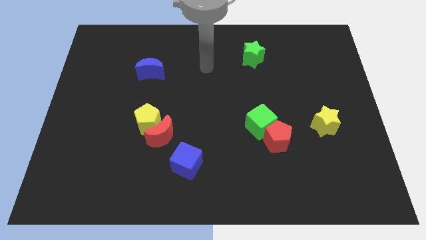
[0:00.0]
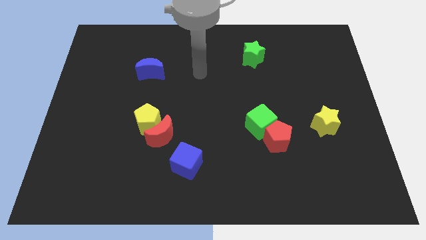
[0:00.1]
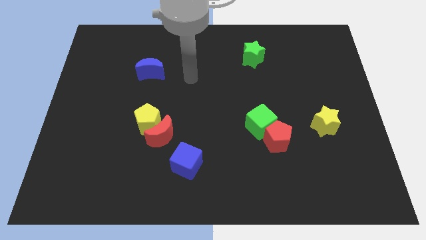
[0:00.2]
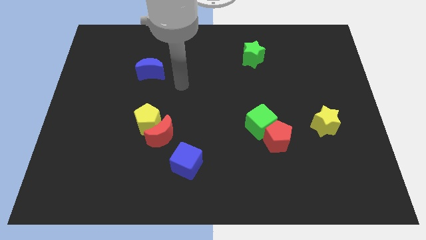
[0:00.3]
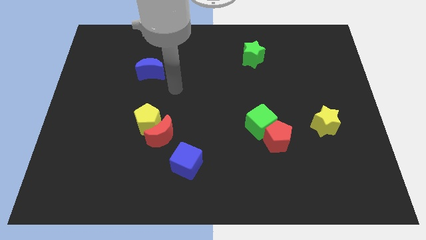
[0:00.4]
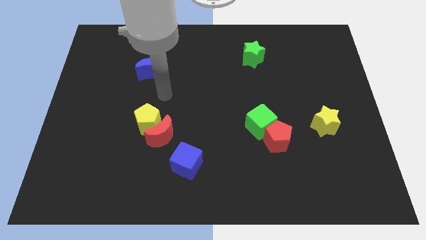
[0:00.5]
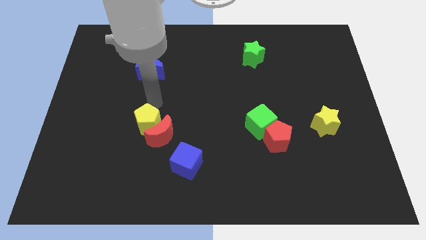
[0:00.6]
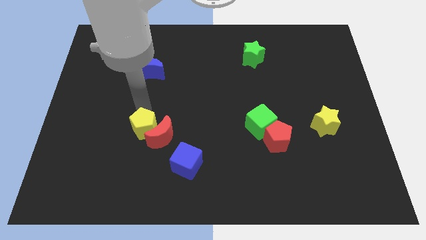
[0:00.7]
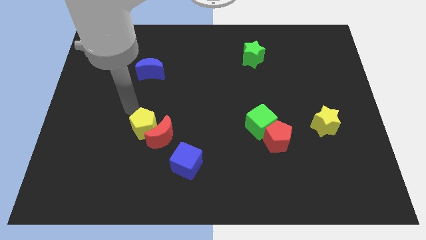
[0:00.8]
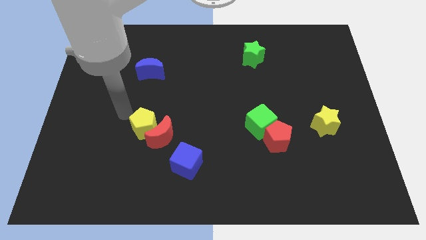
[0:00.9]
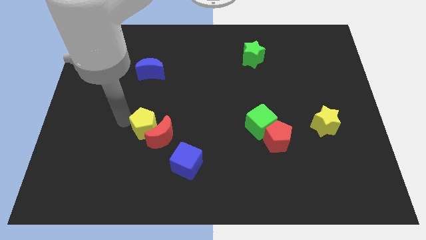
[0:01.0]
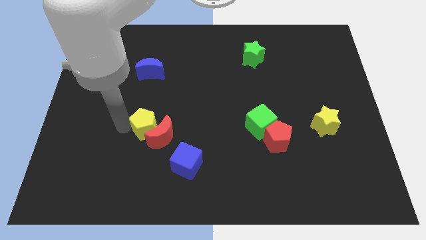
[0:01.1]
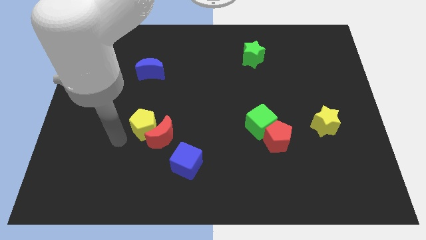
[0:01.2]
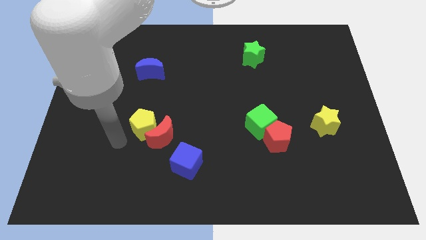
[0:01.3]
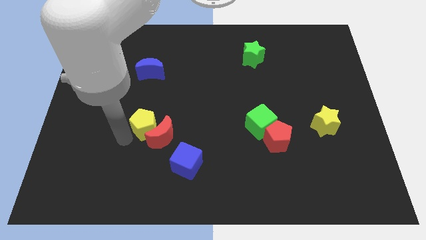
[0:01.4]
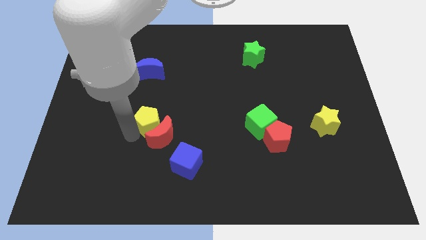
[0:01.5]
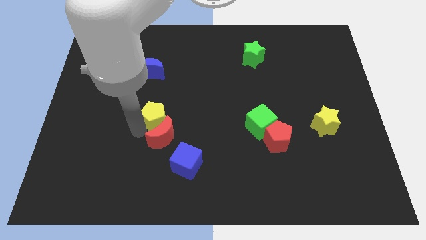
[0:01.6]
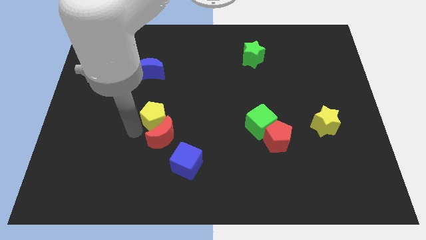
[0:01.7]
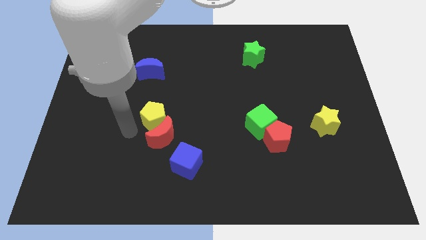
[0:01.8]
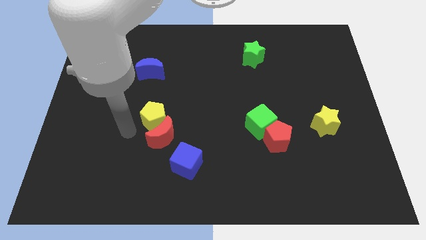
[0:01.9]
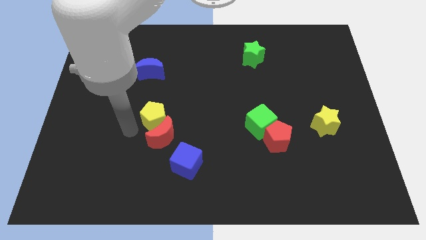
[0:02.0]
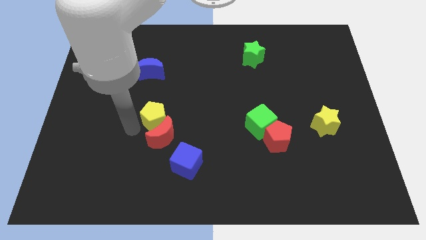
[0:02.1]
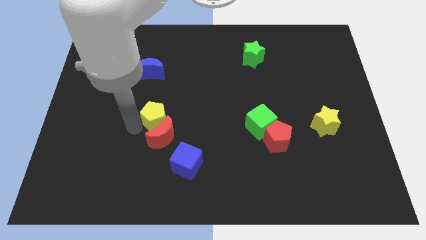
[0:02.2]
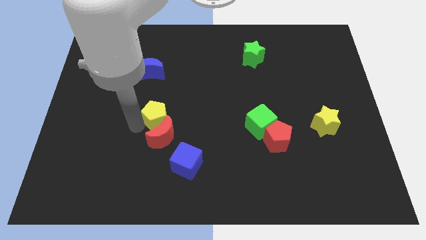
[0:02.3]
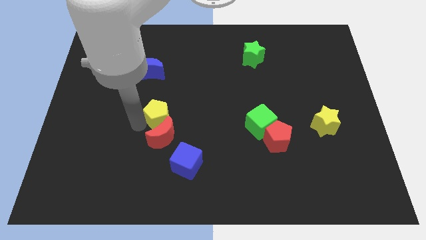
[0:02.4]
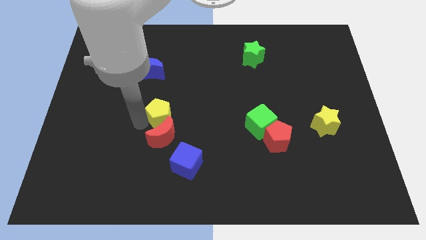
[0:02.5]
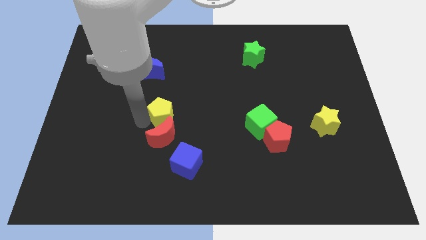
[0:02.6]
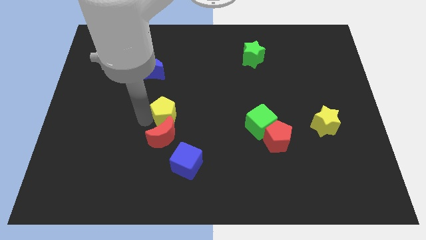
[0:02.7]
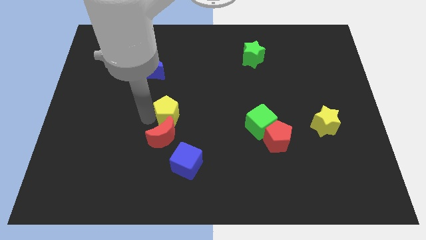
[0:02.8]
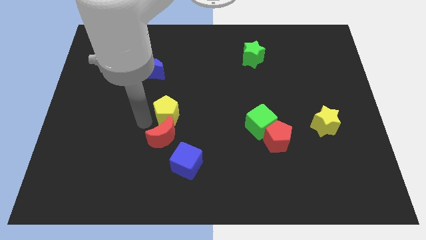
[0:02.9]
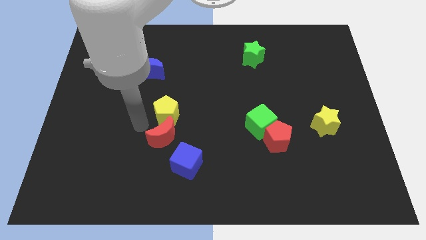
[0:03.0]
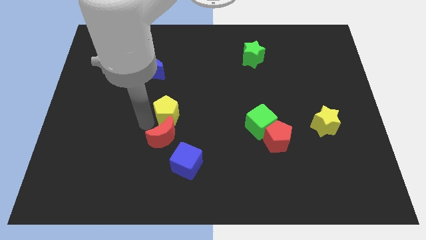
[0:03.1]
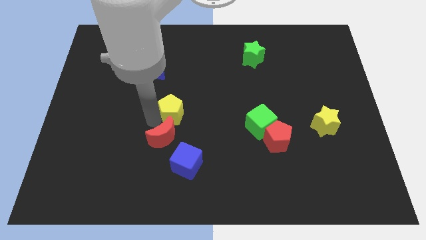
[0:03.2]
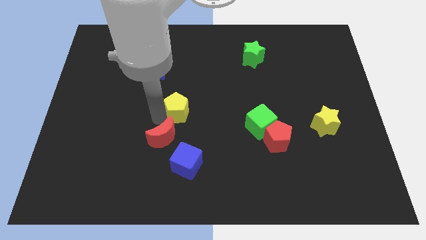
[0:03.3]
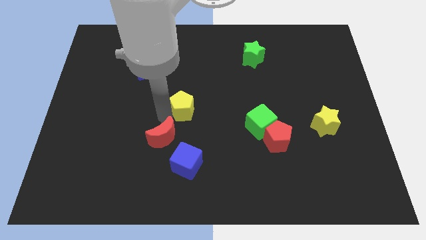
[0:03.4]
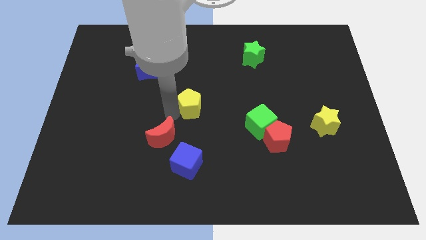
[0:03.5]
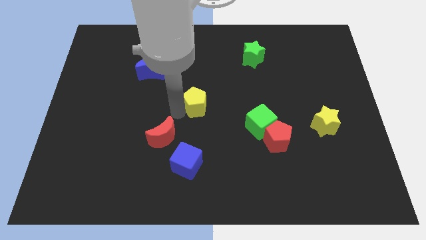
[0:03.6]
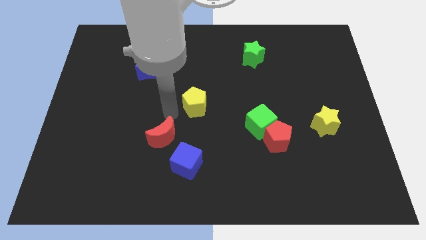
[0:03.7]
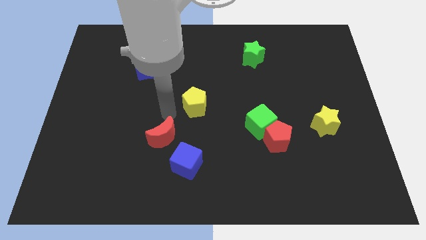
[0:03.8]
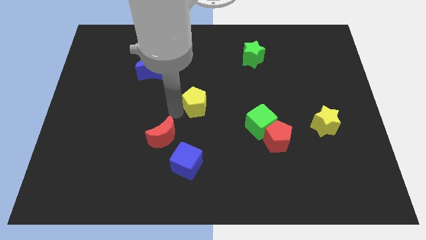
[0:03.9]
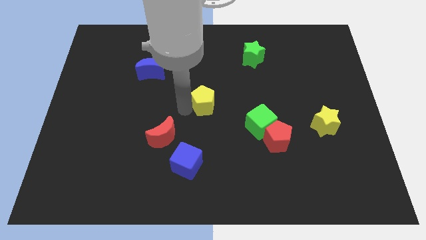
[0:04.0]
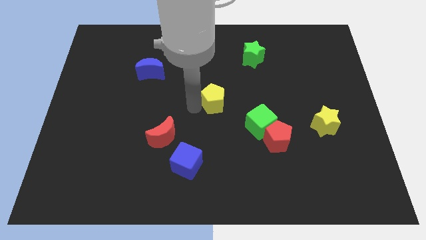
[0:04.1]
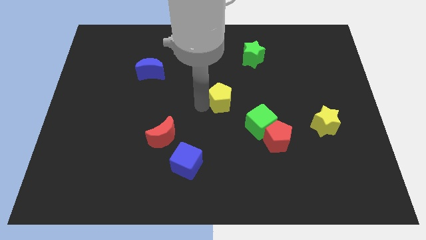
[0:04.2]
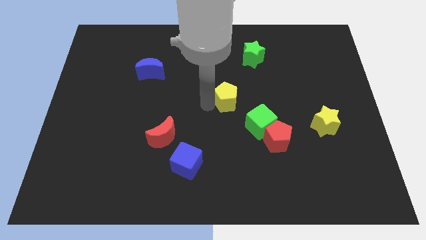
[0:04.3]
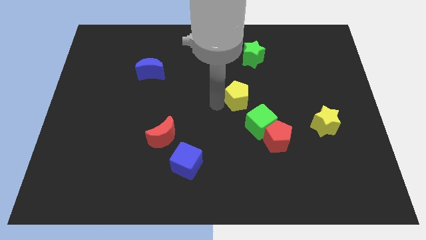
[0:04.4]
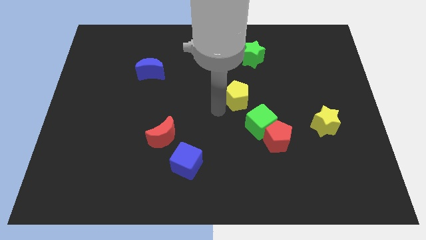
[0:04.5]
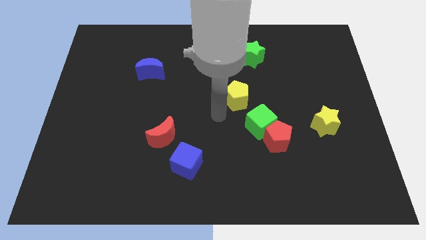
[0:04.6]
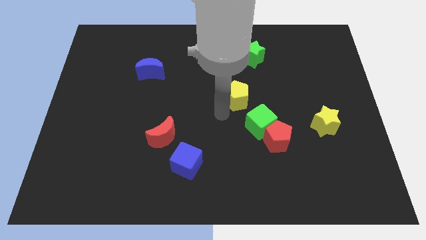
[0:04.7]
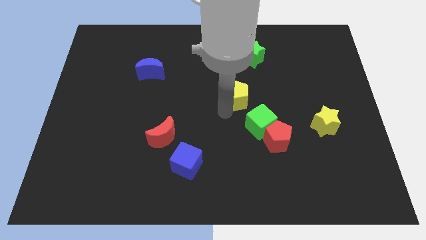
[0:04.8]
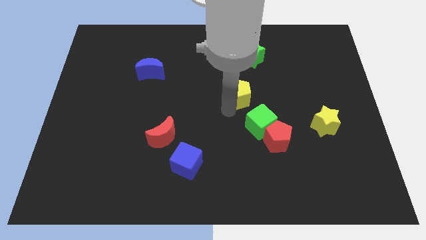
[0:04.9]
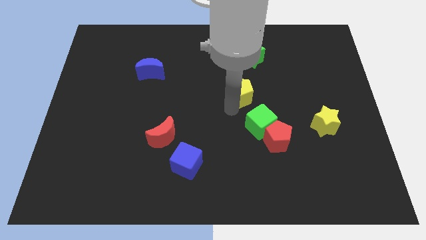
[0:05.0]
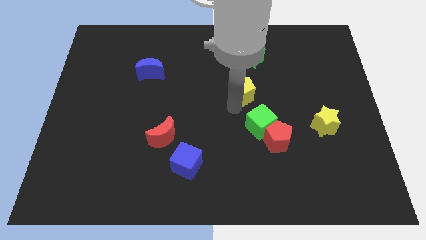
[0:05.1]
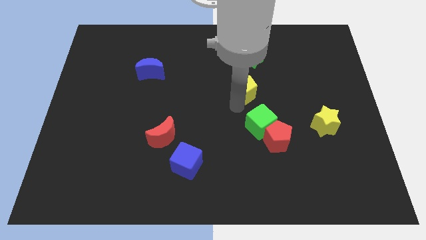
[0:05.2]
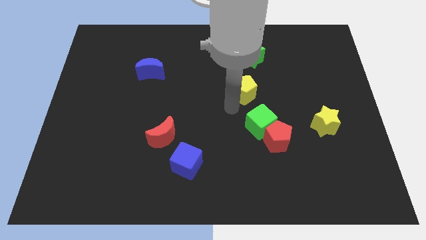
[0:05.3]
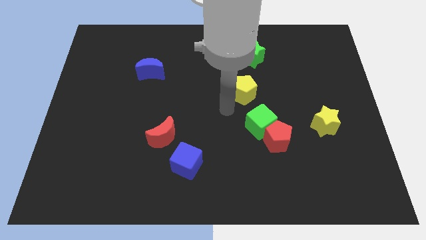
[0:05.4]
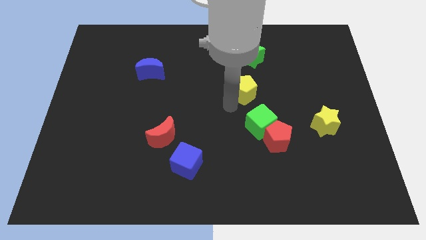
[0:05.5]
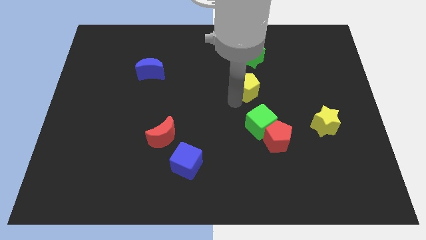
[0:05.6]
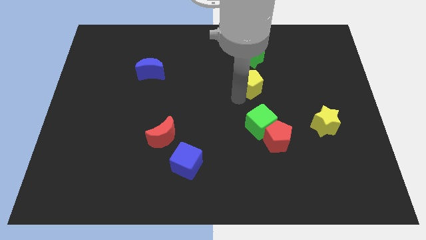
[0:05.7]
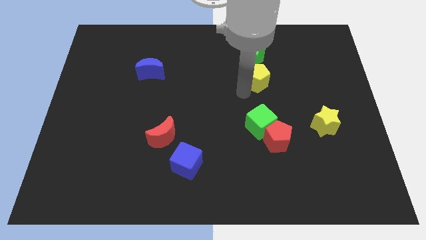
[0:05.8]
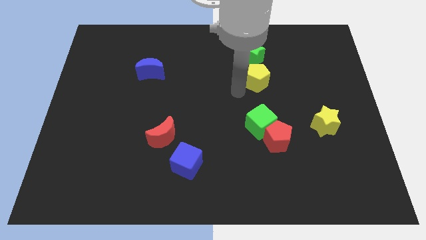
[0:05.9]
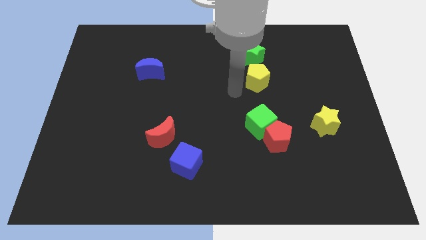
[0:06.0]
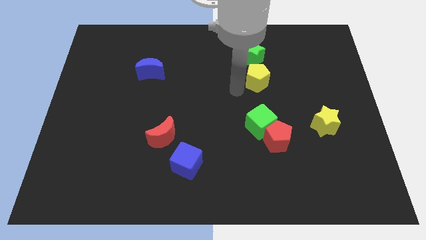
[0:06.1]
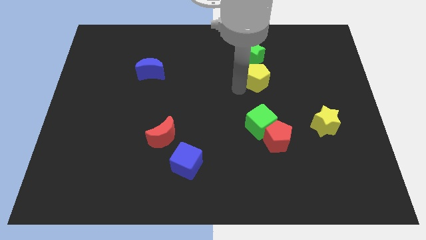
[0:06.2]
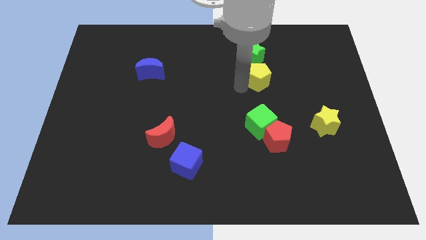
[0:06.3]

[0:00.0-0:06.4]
push the yellow pentagon to the bottom right side of the green star
